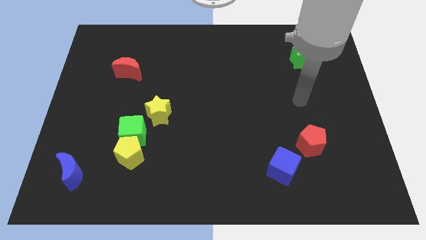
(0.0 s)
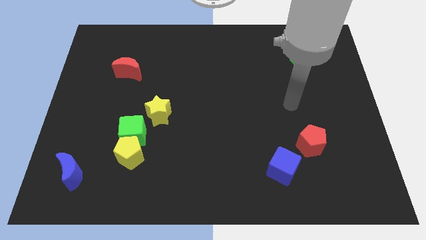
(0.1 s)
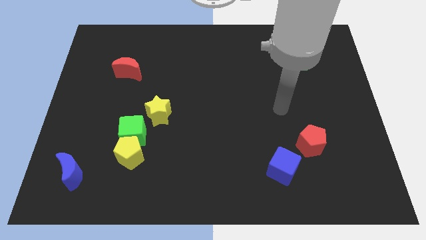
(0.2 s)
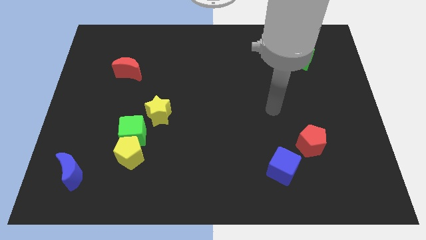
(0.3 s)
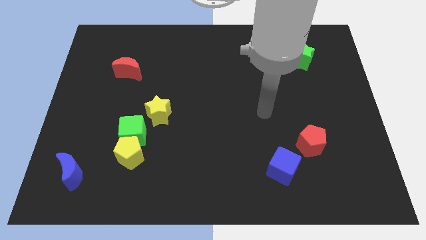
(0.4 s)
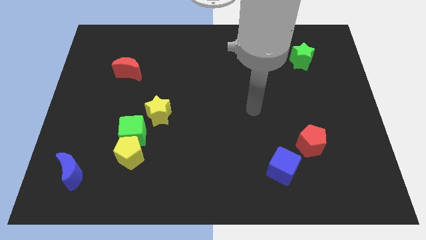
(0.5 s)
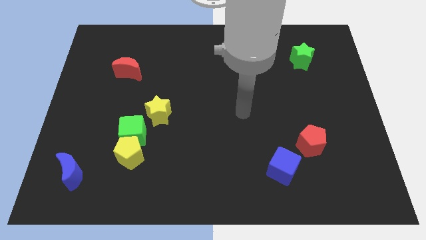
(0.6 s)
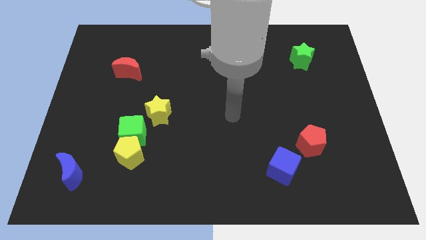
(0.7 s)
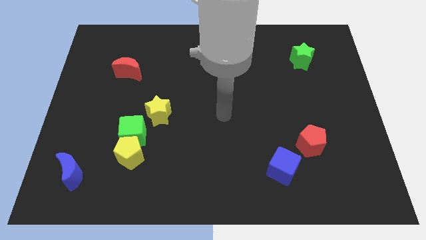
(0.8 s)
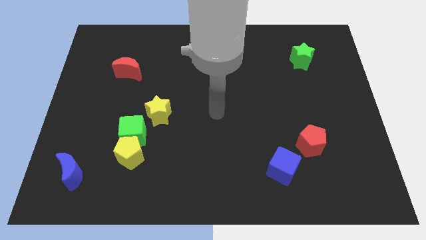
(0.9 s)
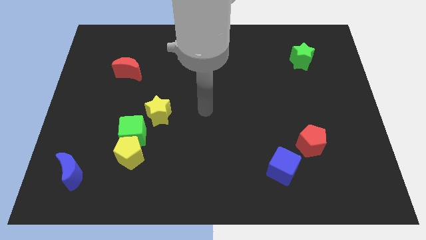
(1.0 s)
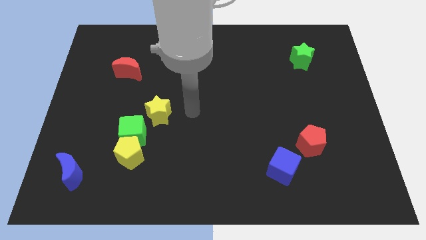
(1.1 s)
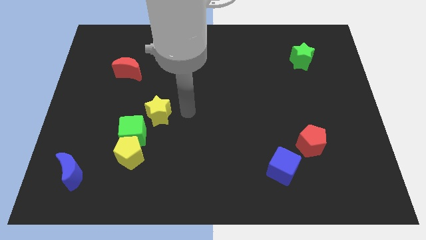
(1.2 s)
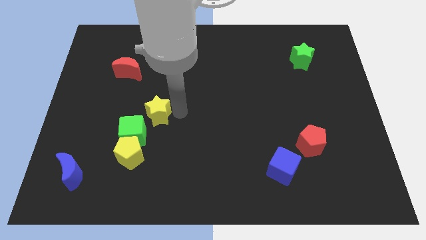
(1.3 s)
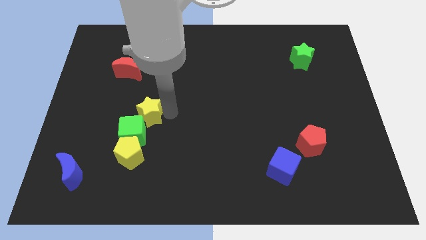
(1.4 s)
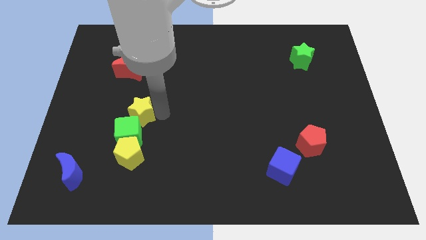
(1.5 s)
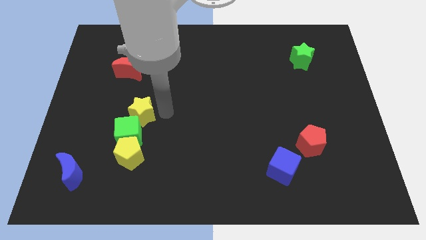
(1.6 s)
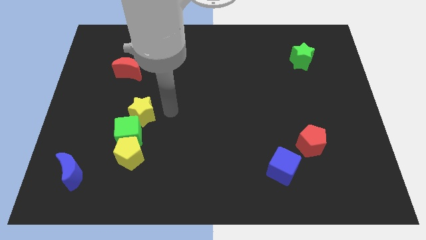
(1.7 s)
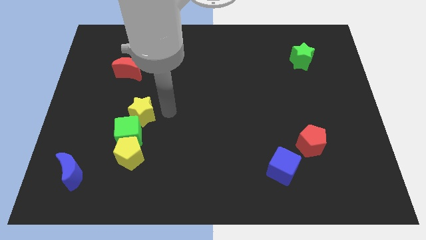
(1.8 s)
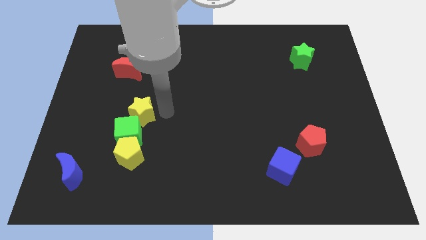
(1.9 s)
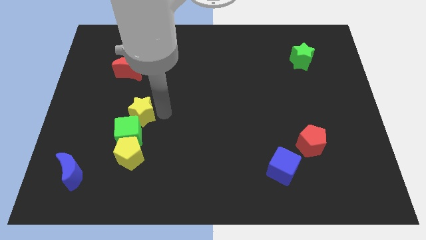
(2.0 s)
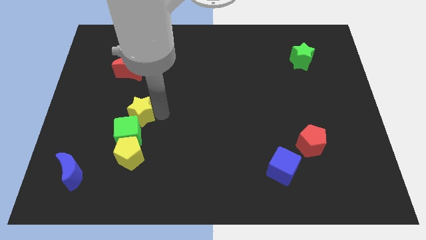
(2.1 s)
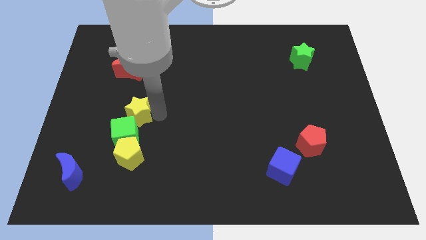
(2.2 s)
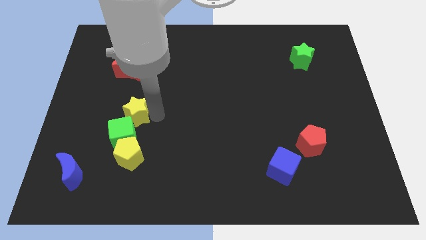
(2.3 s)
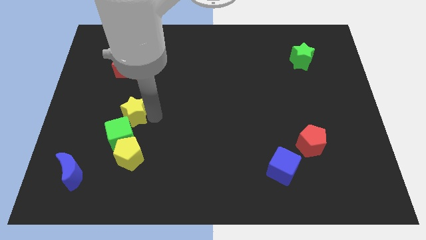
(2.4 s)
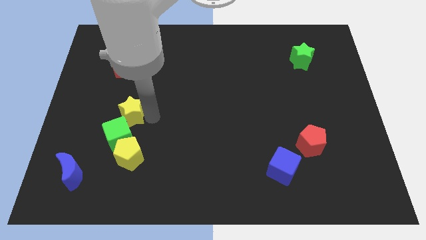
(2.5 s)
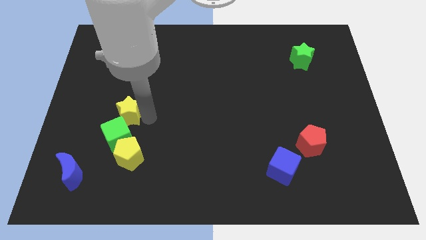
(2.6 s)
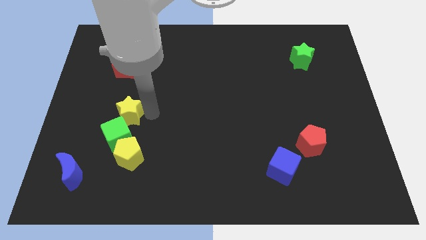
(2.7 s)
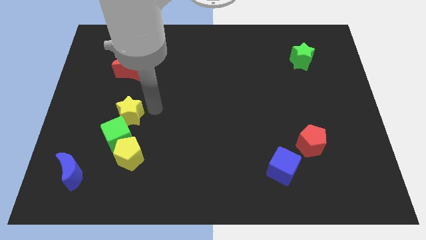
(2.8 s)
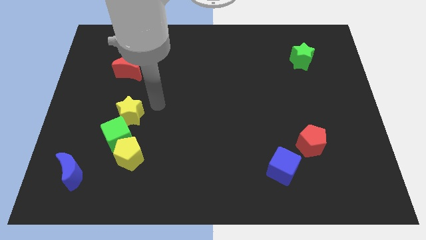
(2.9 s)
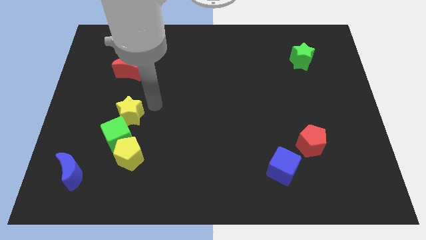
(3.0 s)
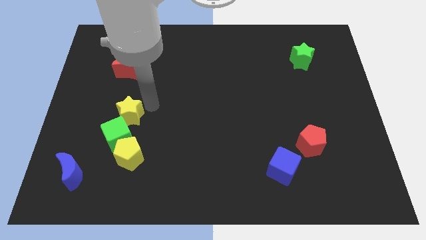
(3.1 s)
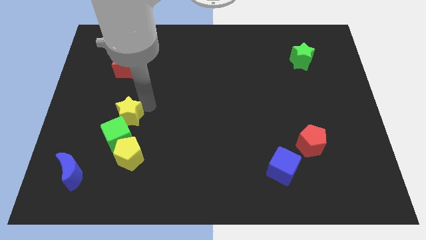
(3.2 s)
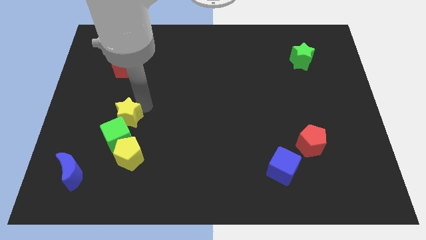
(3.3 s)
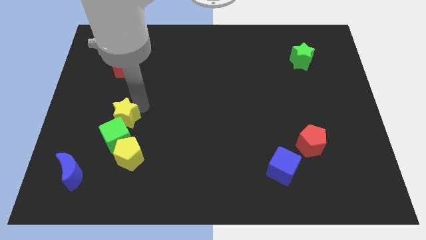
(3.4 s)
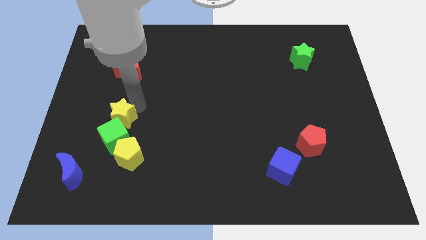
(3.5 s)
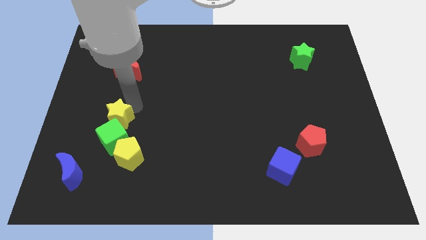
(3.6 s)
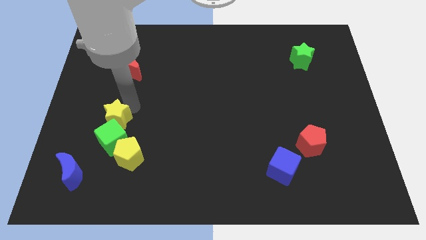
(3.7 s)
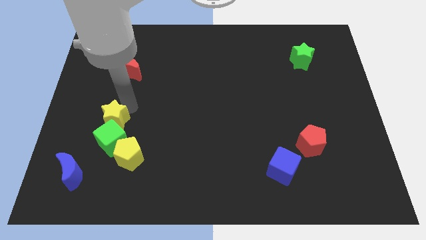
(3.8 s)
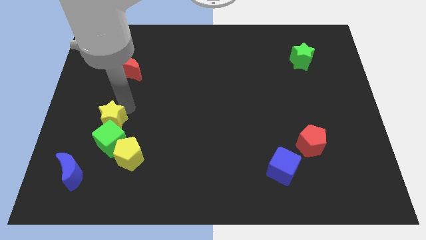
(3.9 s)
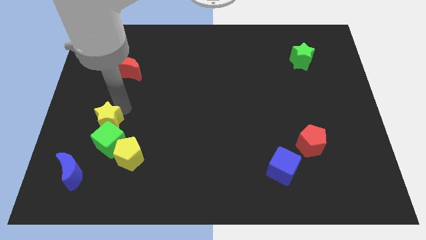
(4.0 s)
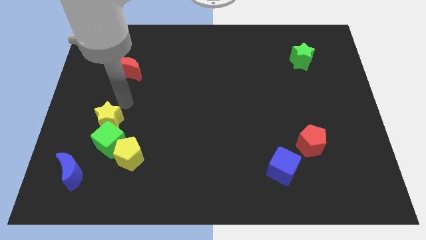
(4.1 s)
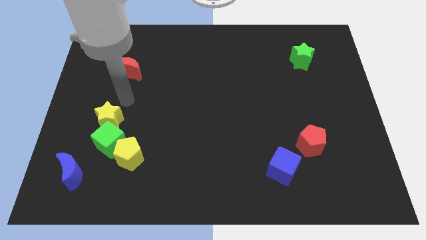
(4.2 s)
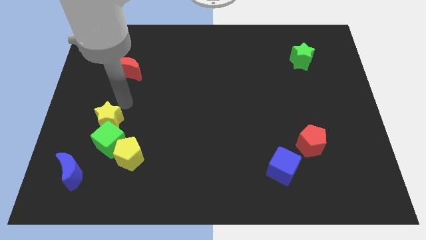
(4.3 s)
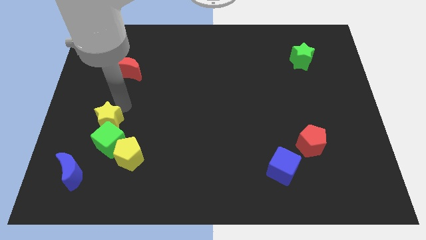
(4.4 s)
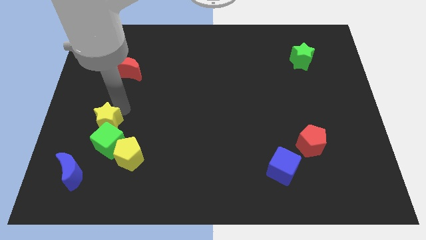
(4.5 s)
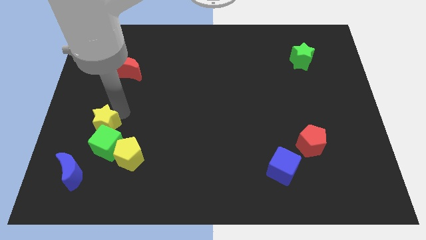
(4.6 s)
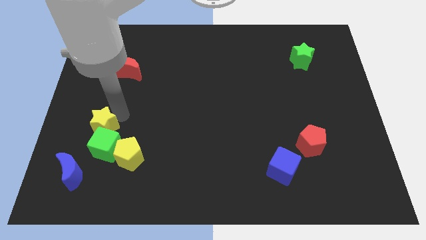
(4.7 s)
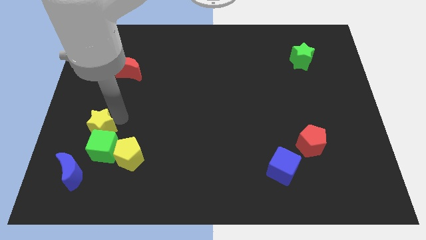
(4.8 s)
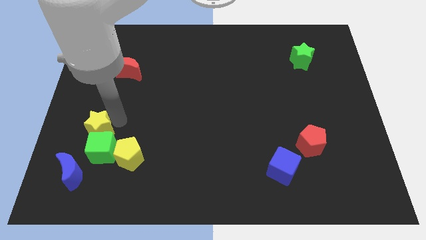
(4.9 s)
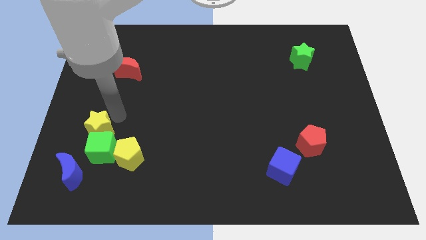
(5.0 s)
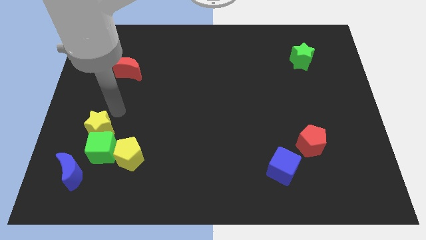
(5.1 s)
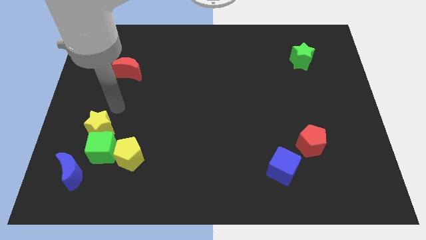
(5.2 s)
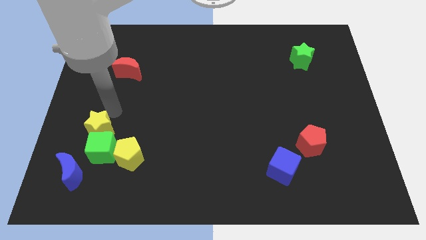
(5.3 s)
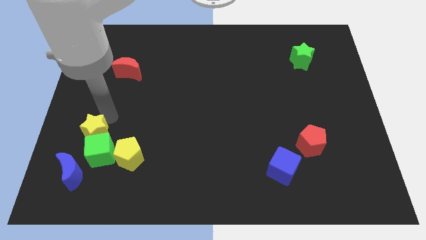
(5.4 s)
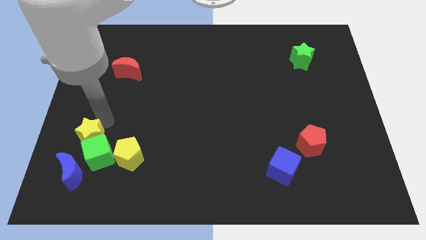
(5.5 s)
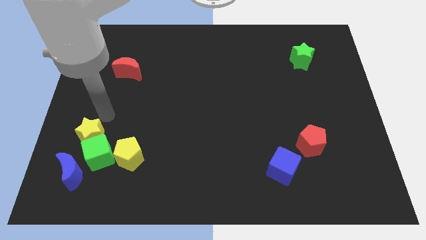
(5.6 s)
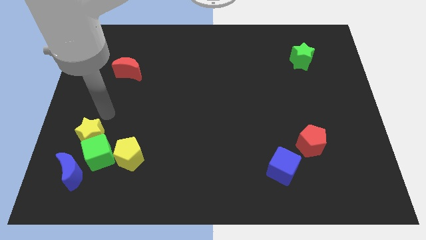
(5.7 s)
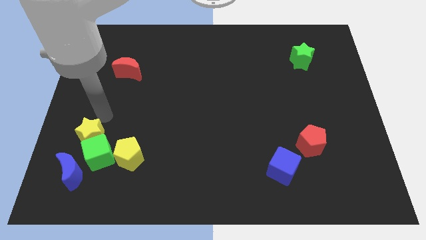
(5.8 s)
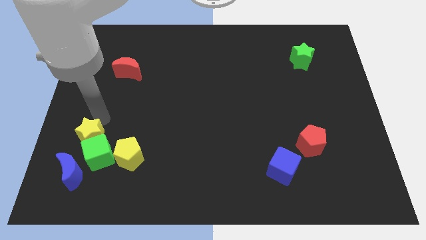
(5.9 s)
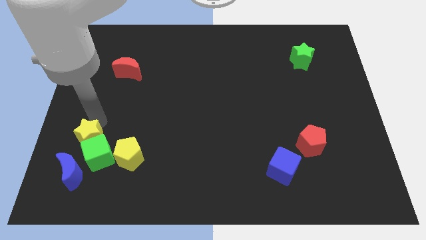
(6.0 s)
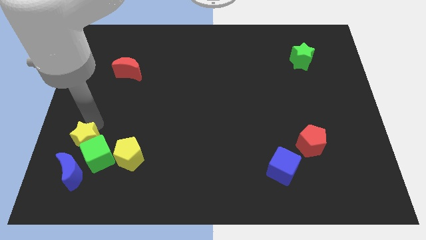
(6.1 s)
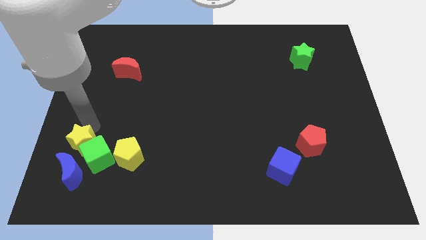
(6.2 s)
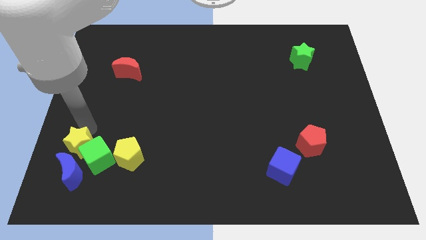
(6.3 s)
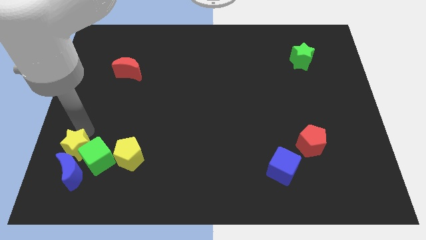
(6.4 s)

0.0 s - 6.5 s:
push the yellow star close to the blue moon

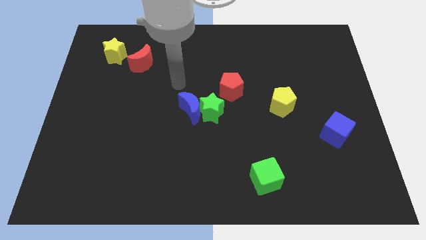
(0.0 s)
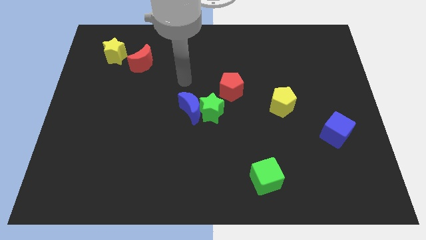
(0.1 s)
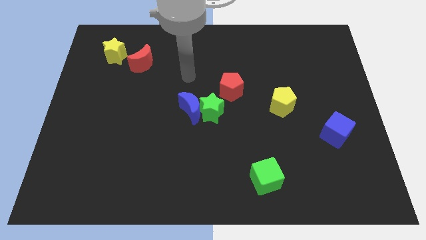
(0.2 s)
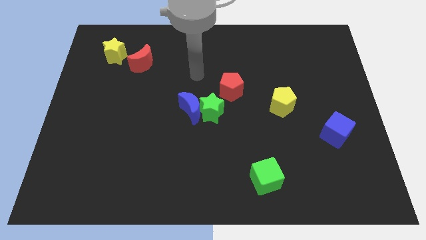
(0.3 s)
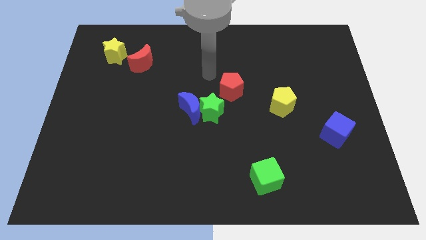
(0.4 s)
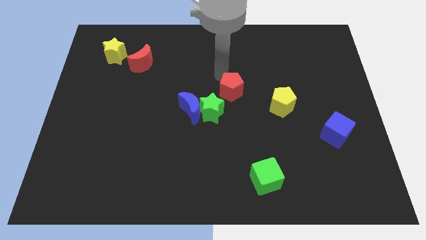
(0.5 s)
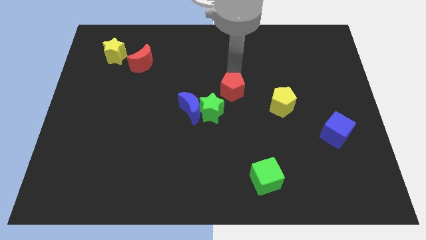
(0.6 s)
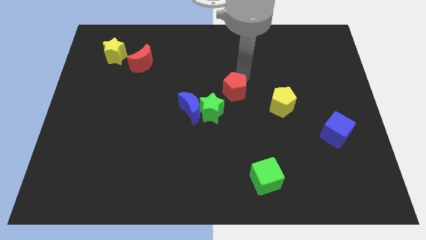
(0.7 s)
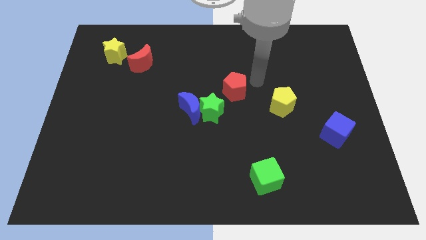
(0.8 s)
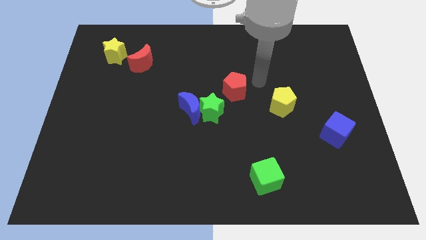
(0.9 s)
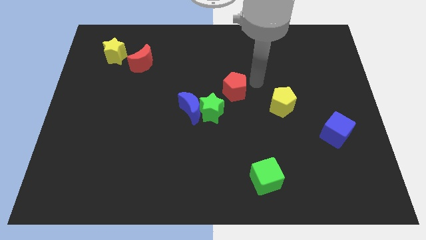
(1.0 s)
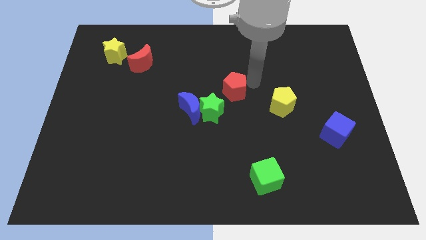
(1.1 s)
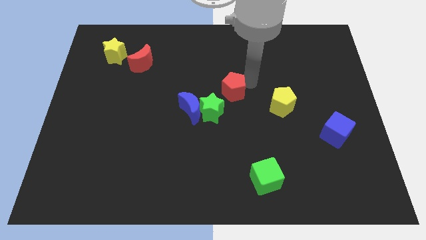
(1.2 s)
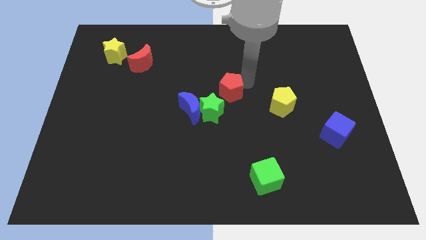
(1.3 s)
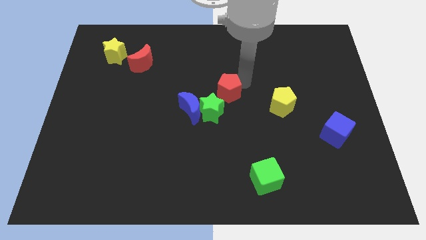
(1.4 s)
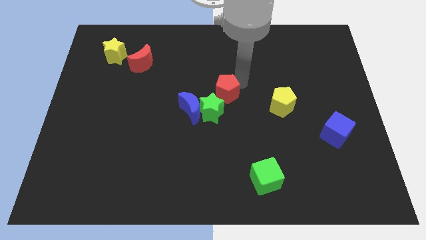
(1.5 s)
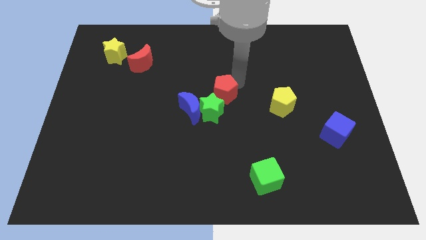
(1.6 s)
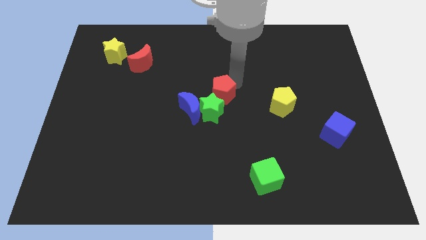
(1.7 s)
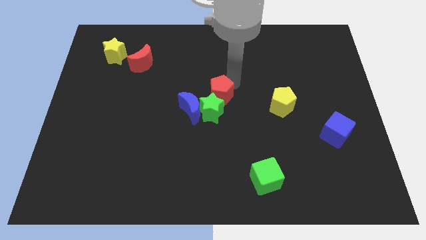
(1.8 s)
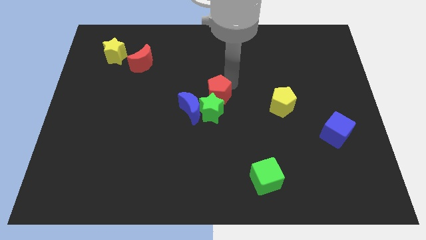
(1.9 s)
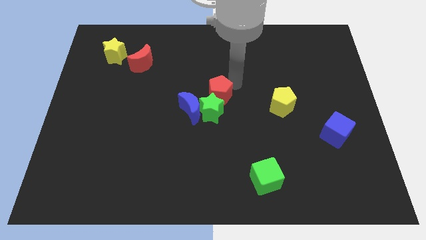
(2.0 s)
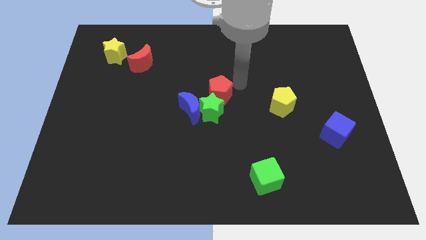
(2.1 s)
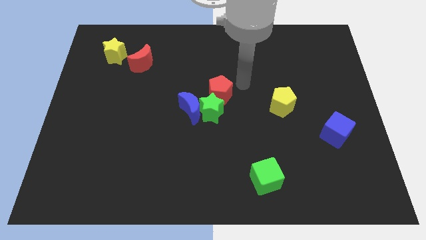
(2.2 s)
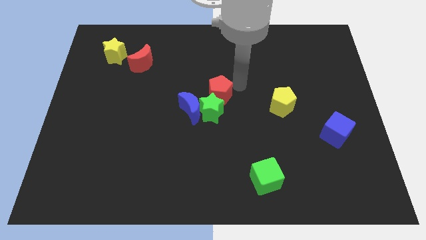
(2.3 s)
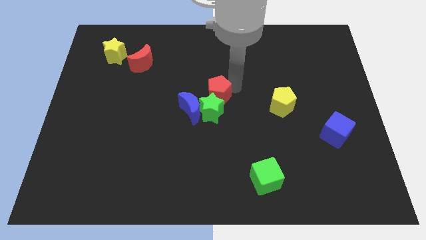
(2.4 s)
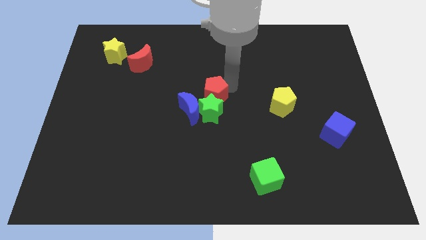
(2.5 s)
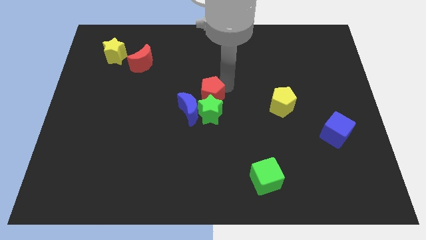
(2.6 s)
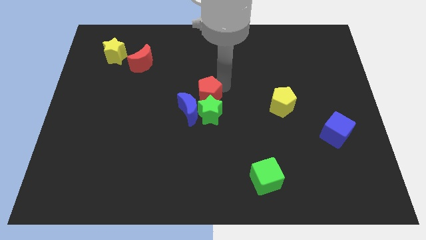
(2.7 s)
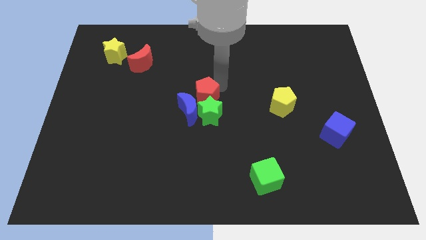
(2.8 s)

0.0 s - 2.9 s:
slide the red pentagon towards the blue moon
